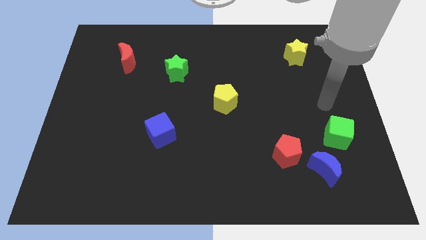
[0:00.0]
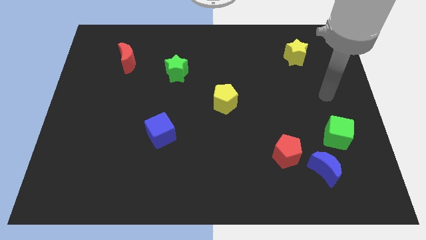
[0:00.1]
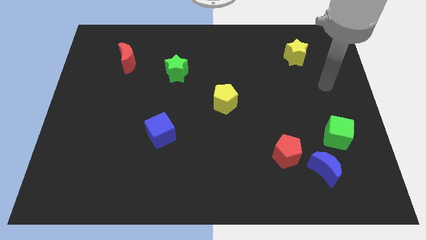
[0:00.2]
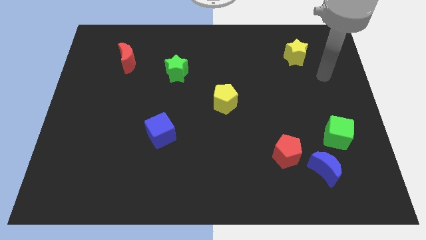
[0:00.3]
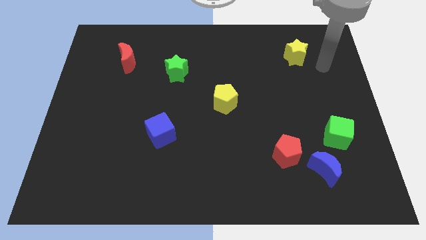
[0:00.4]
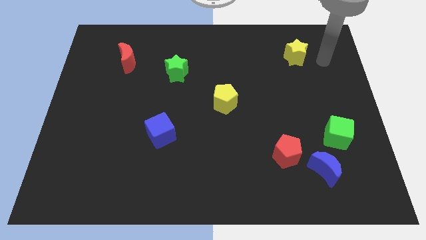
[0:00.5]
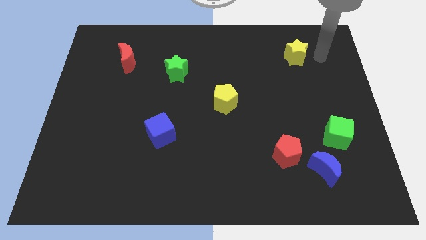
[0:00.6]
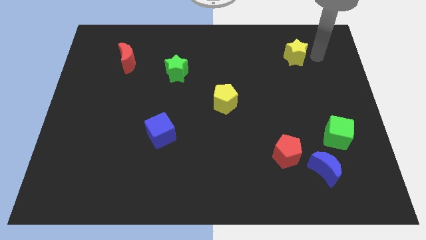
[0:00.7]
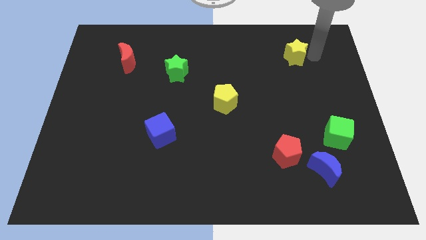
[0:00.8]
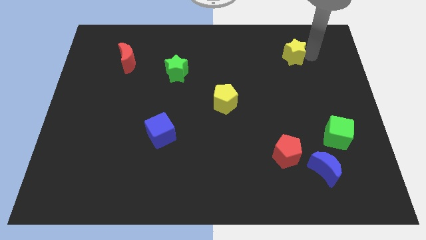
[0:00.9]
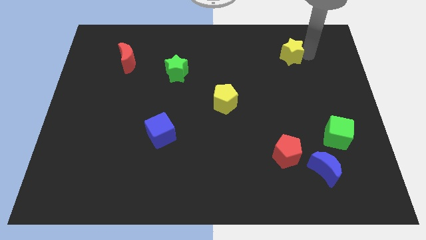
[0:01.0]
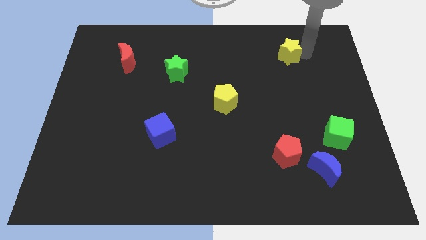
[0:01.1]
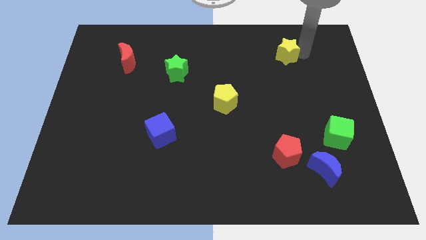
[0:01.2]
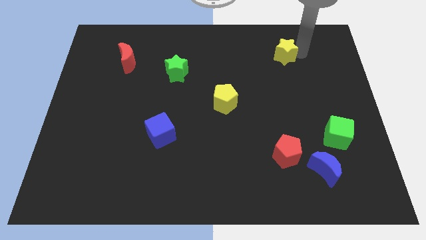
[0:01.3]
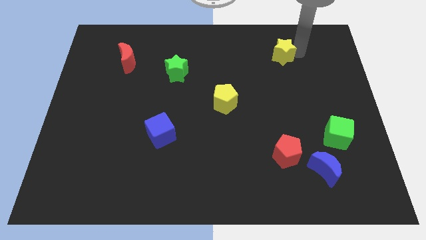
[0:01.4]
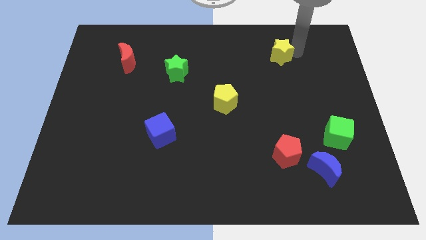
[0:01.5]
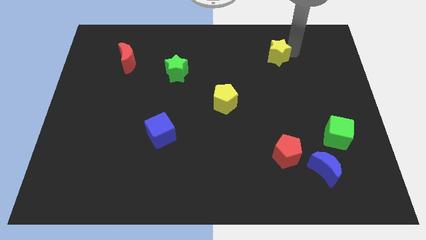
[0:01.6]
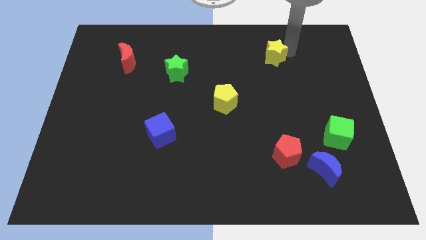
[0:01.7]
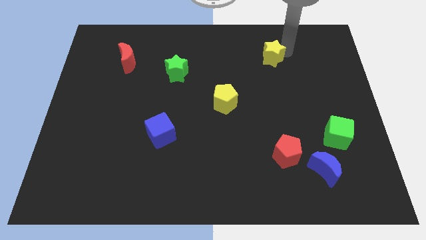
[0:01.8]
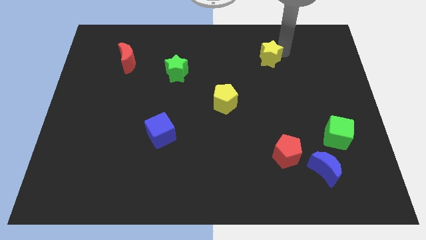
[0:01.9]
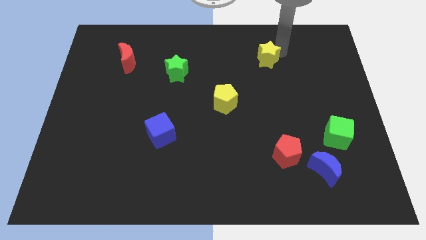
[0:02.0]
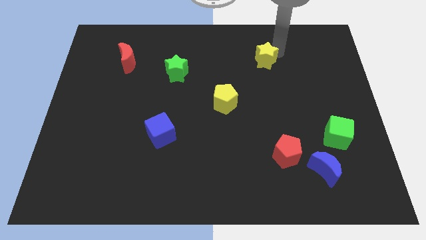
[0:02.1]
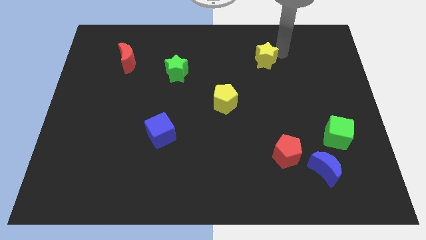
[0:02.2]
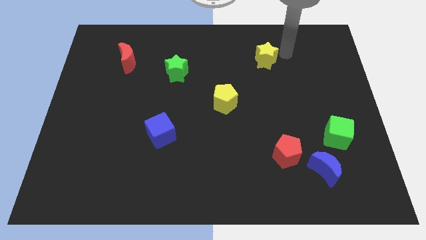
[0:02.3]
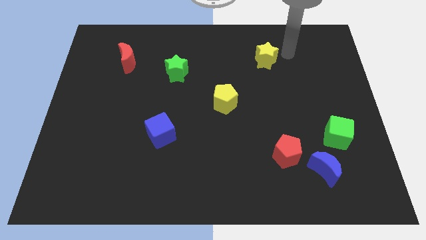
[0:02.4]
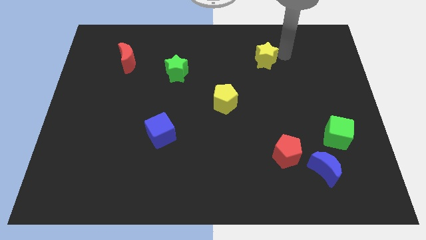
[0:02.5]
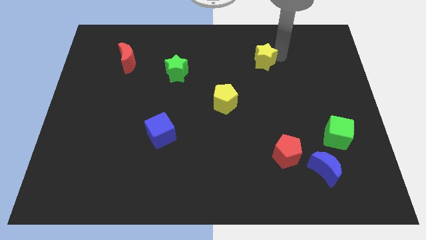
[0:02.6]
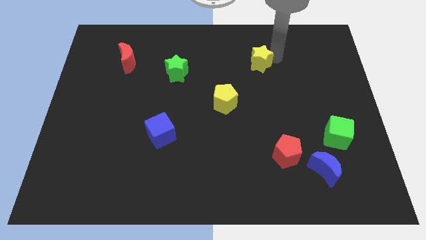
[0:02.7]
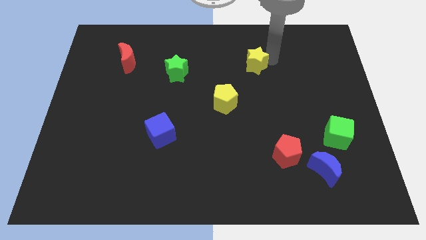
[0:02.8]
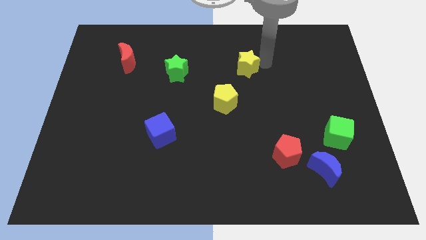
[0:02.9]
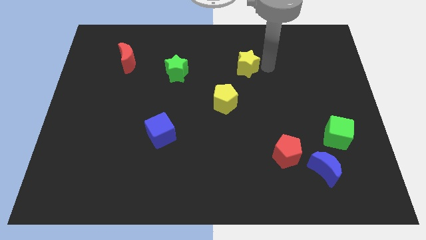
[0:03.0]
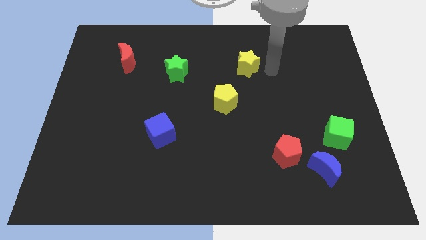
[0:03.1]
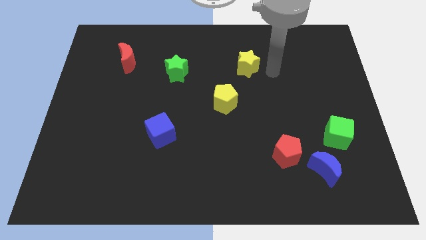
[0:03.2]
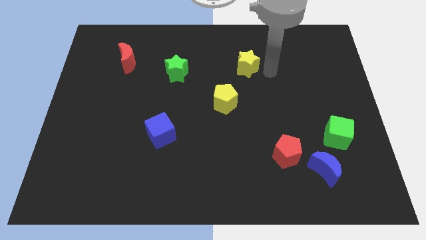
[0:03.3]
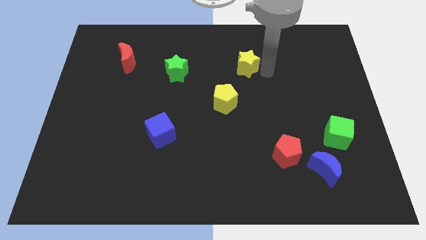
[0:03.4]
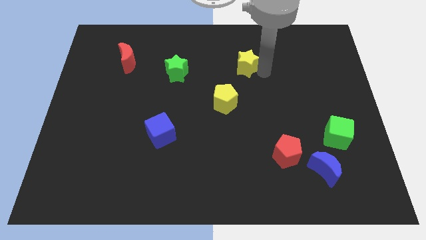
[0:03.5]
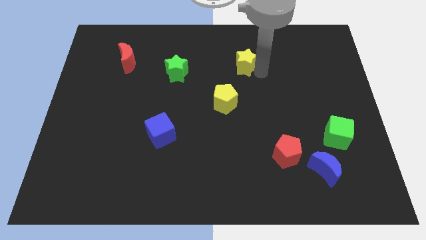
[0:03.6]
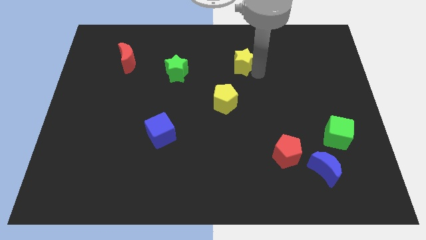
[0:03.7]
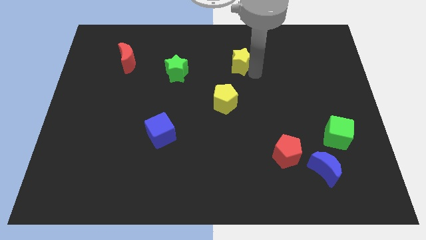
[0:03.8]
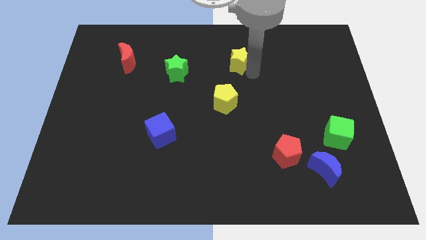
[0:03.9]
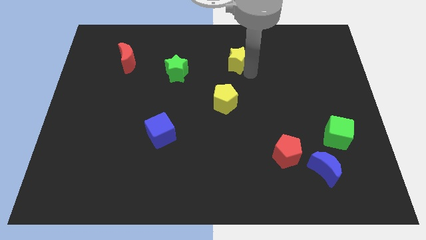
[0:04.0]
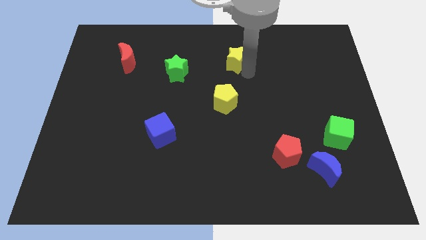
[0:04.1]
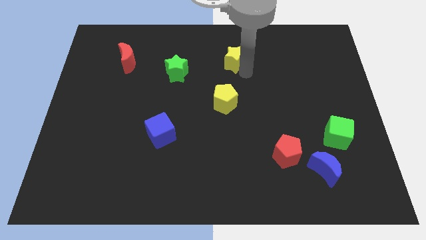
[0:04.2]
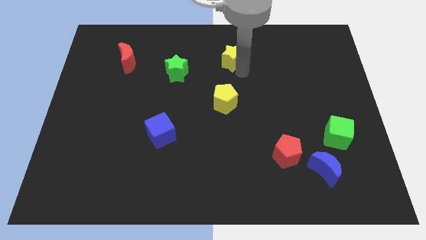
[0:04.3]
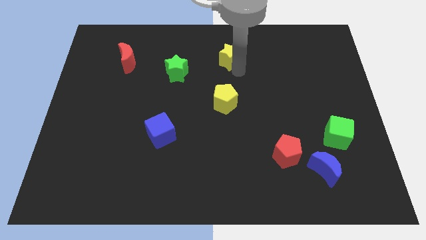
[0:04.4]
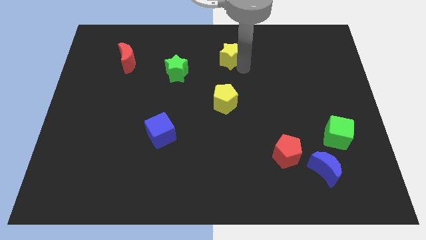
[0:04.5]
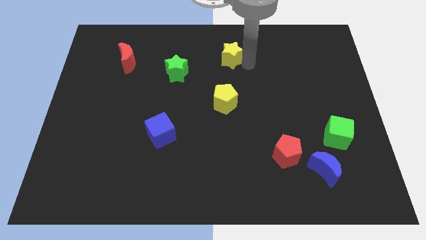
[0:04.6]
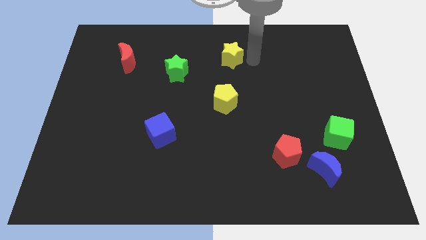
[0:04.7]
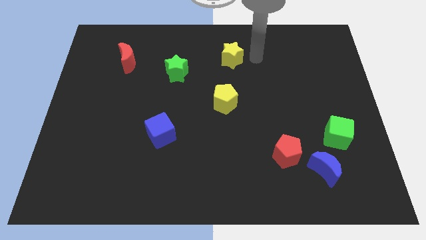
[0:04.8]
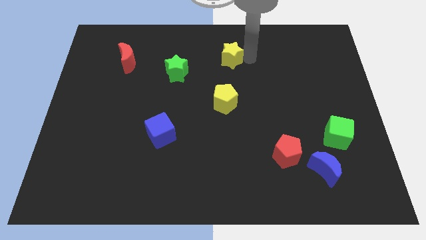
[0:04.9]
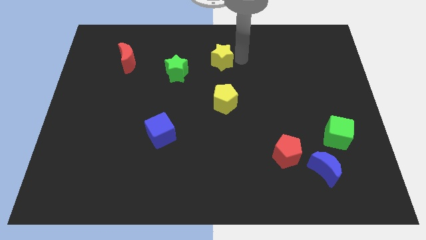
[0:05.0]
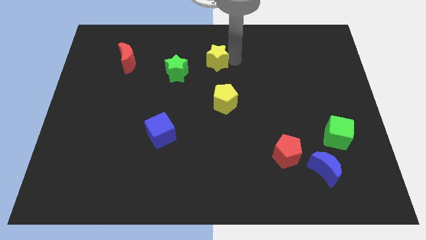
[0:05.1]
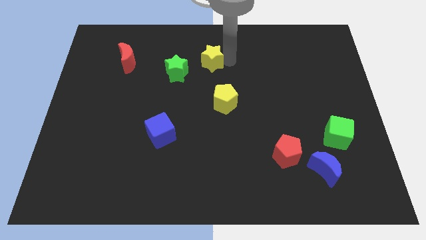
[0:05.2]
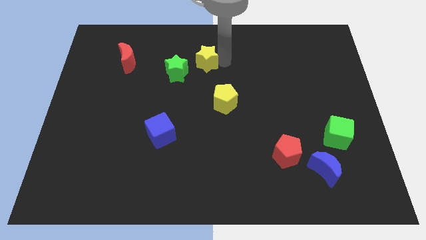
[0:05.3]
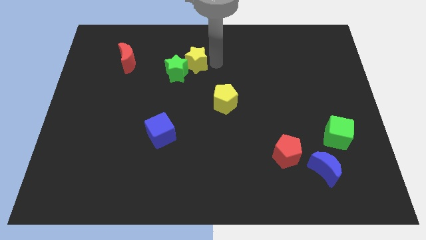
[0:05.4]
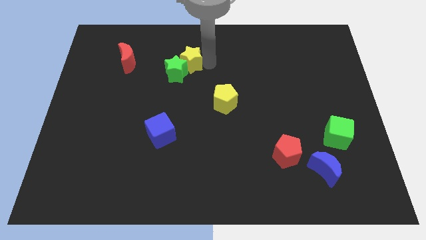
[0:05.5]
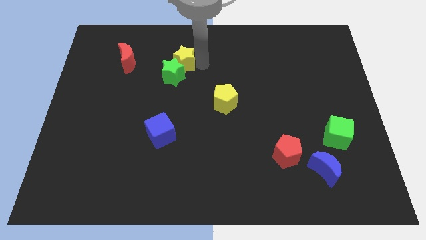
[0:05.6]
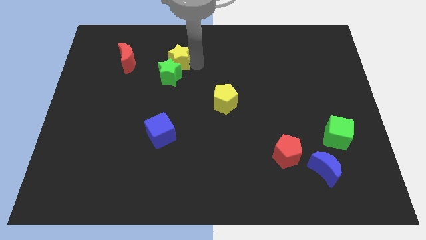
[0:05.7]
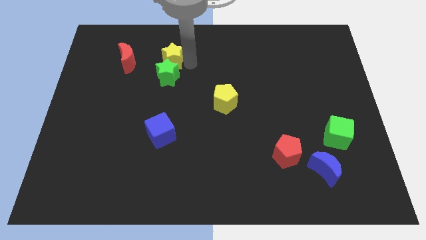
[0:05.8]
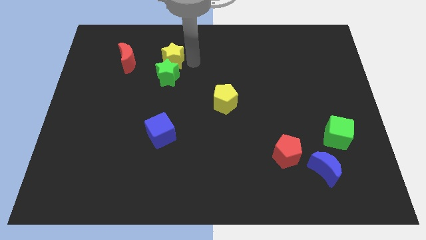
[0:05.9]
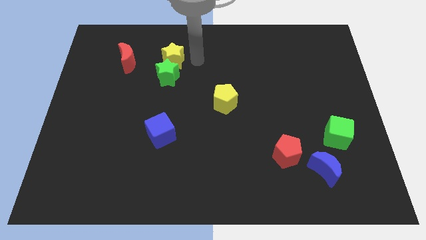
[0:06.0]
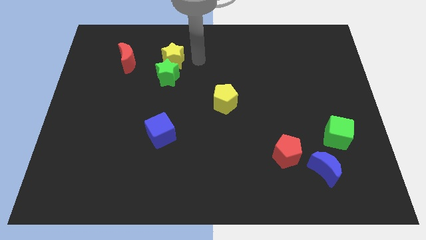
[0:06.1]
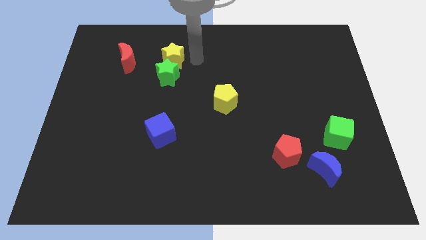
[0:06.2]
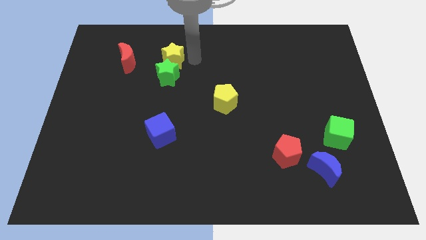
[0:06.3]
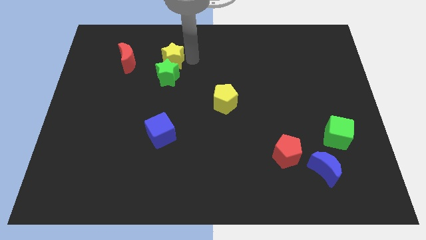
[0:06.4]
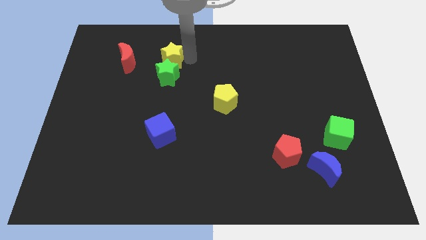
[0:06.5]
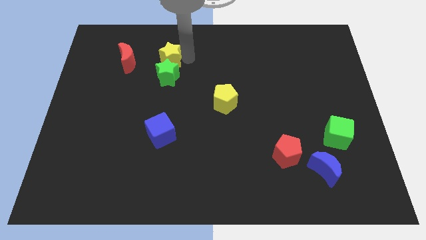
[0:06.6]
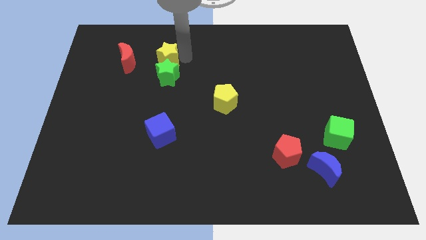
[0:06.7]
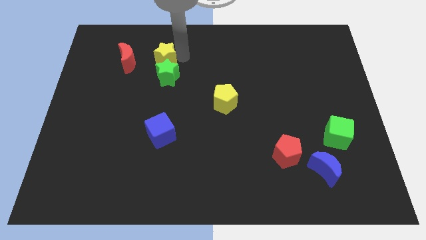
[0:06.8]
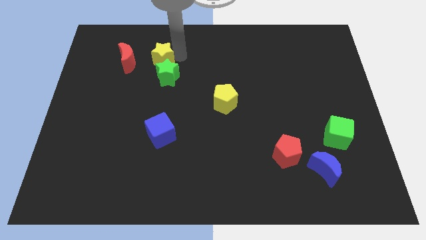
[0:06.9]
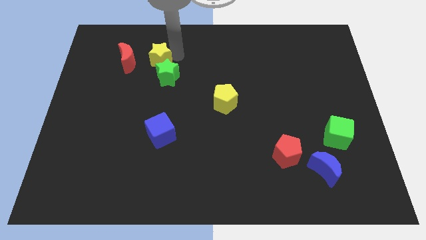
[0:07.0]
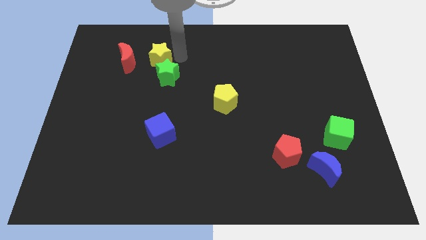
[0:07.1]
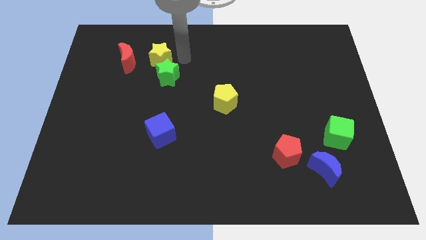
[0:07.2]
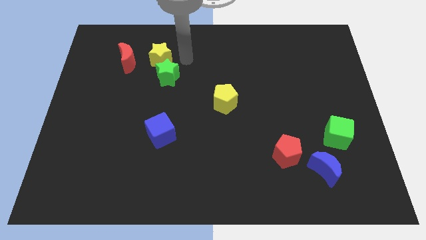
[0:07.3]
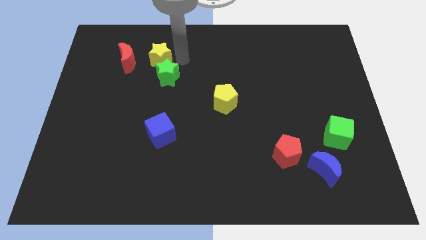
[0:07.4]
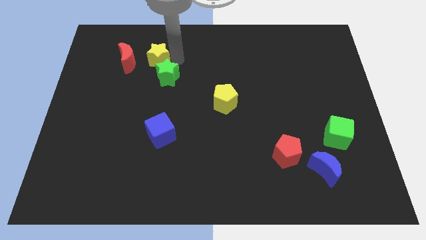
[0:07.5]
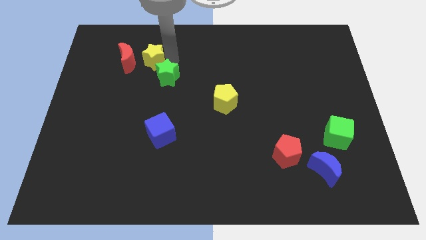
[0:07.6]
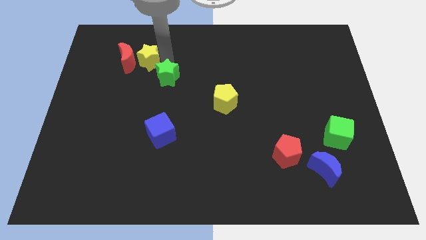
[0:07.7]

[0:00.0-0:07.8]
move the yellow star to the red moon

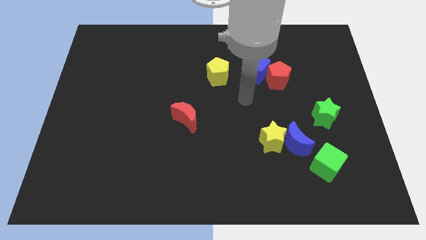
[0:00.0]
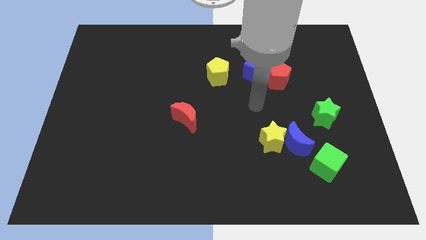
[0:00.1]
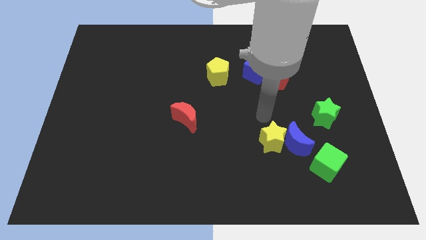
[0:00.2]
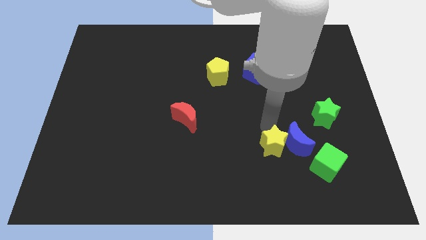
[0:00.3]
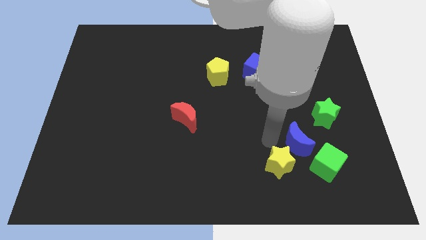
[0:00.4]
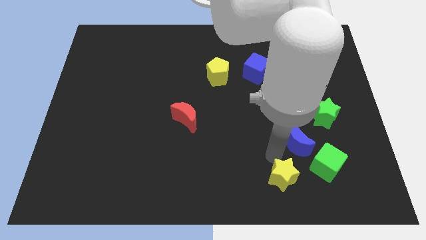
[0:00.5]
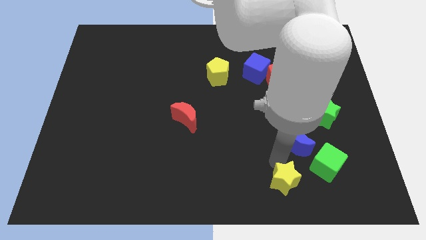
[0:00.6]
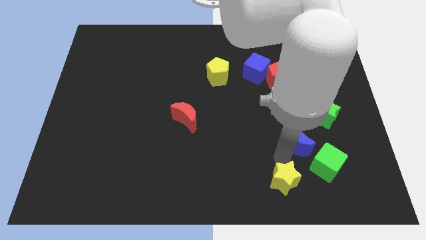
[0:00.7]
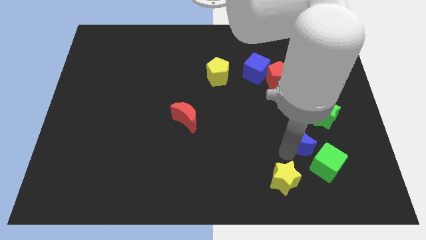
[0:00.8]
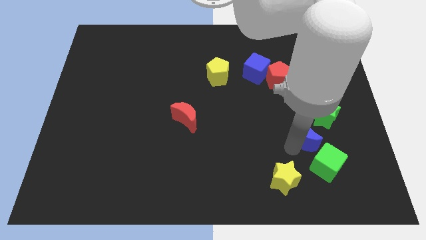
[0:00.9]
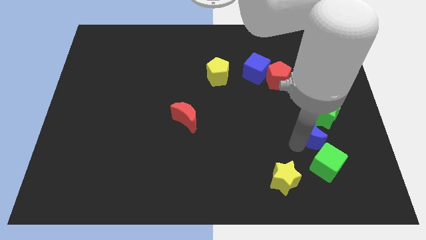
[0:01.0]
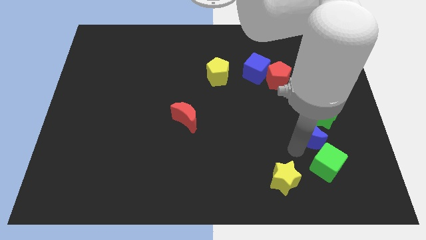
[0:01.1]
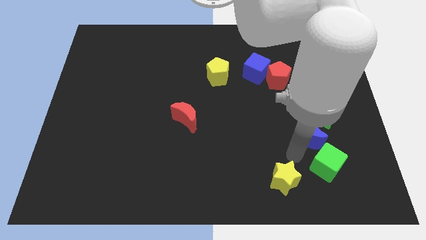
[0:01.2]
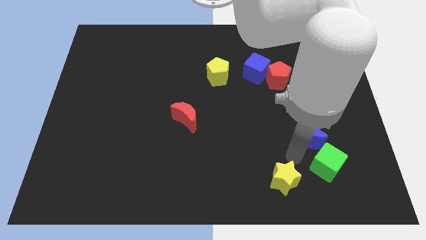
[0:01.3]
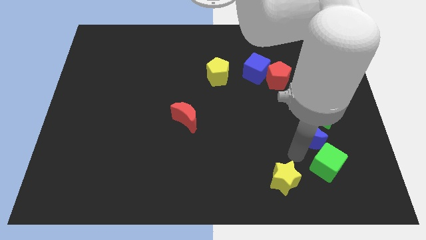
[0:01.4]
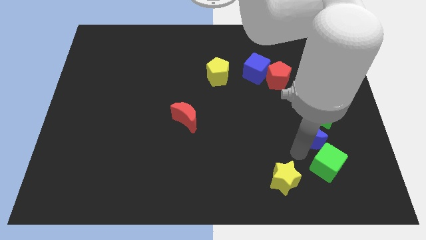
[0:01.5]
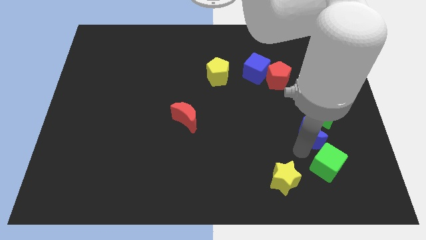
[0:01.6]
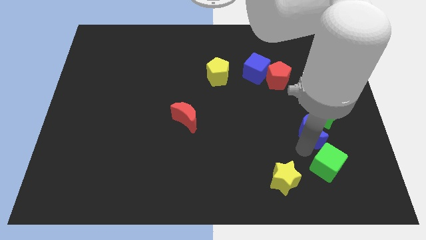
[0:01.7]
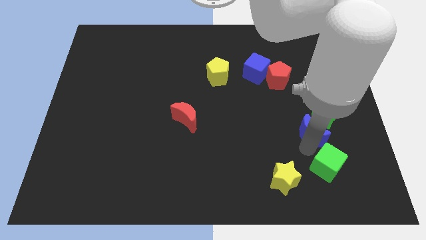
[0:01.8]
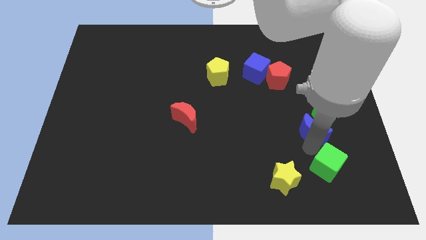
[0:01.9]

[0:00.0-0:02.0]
put the blue moon to the green star
